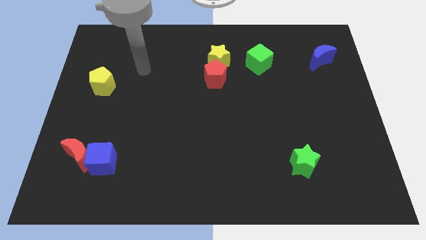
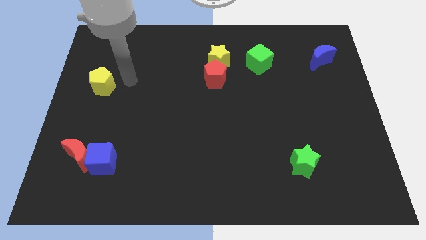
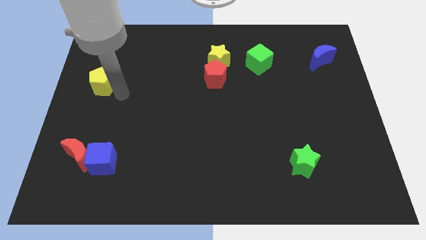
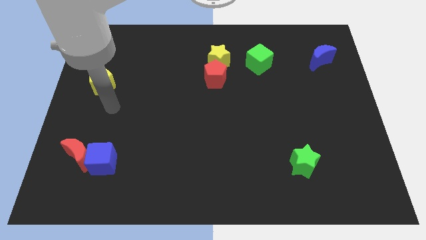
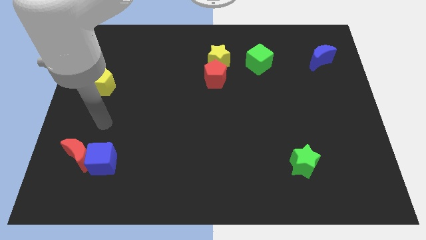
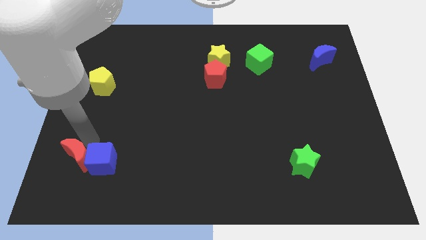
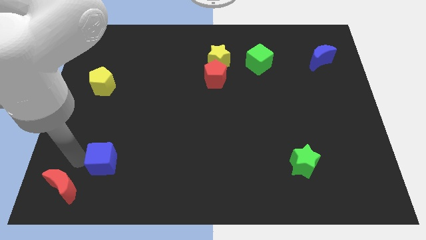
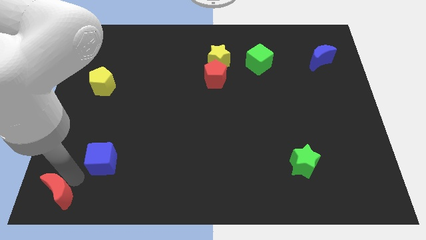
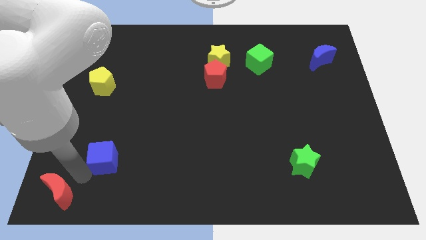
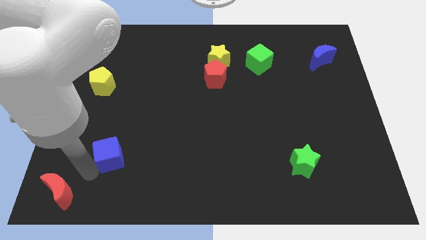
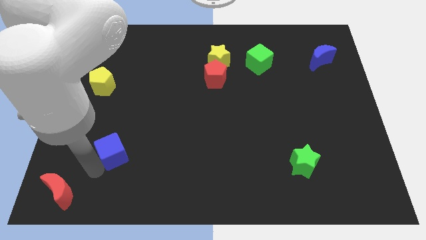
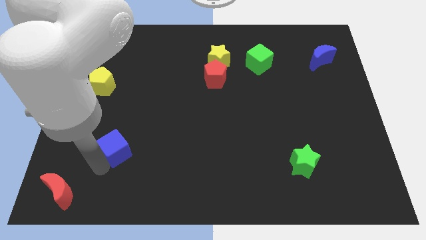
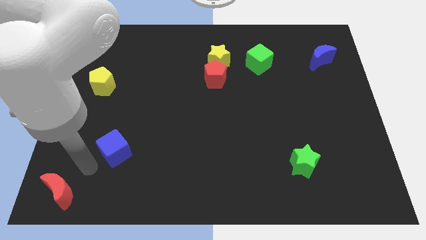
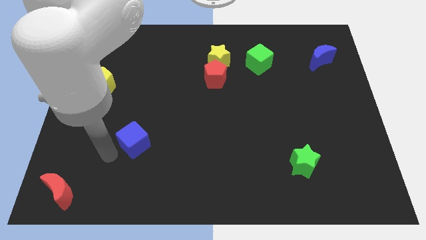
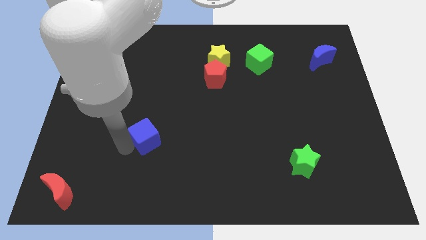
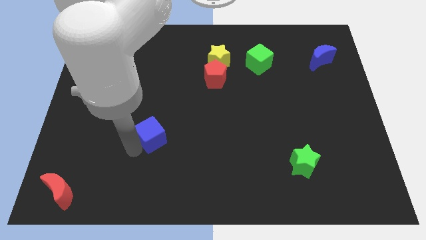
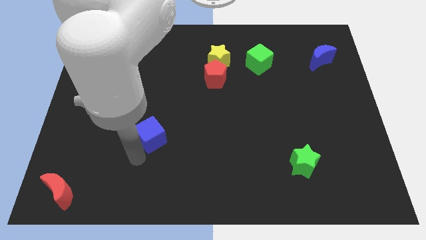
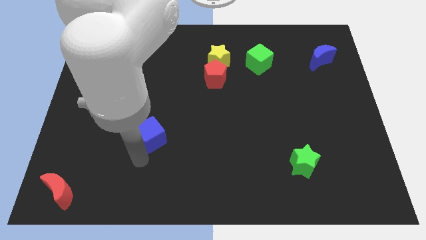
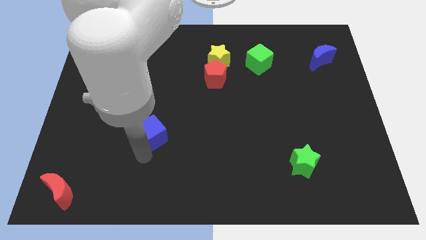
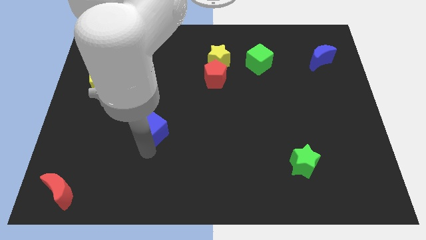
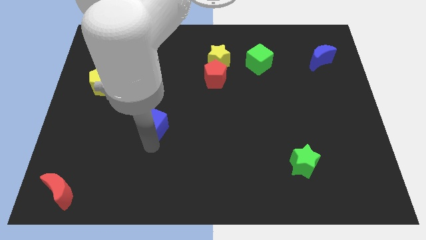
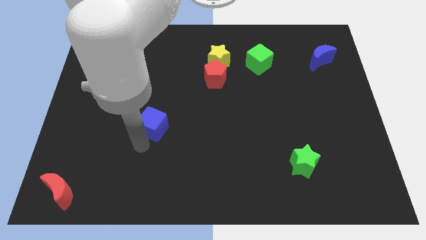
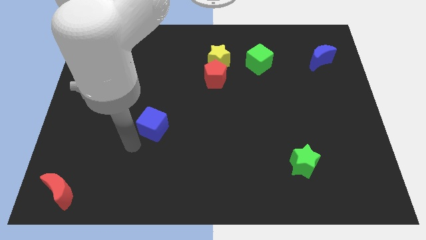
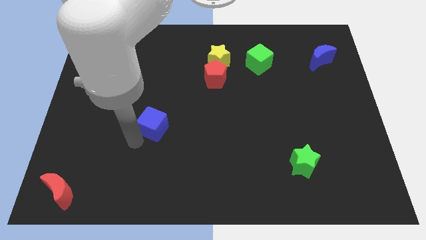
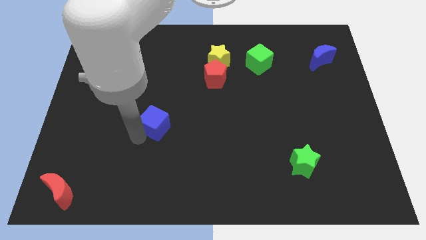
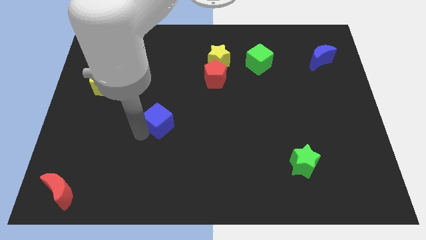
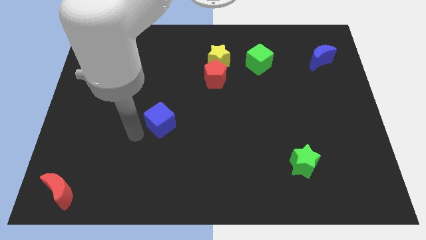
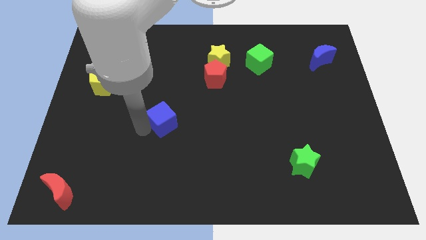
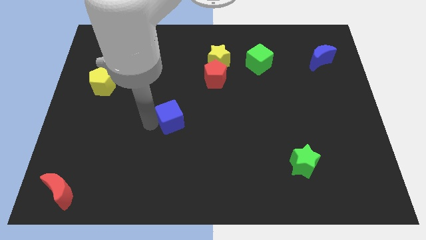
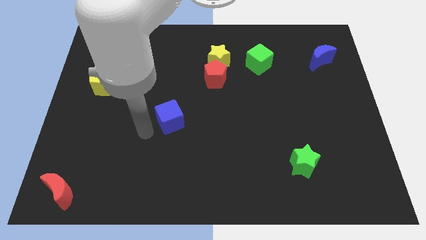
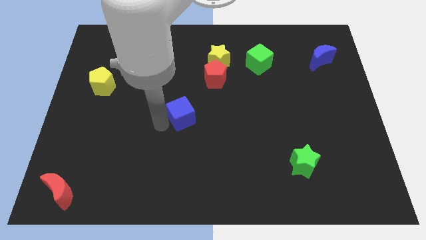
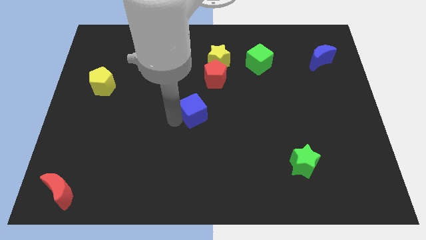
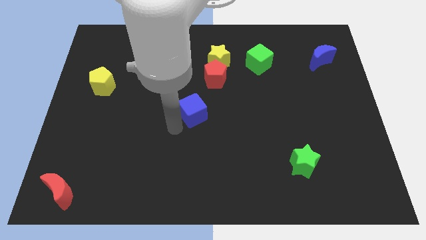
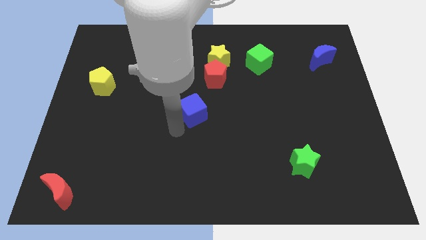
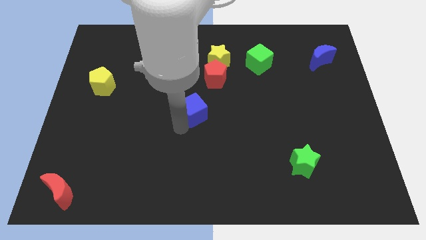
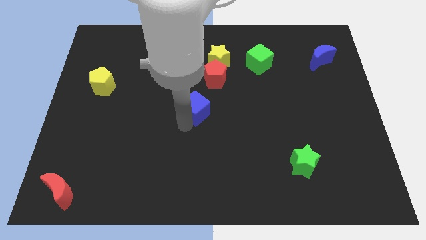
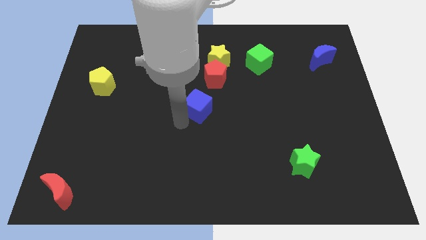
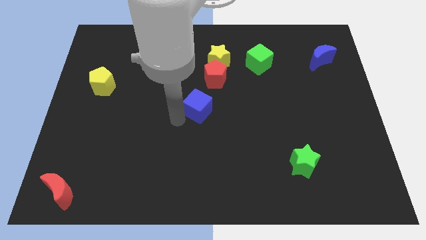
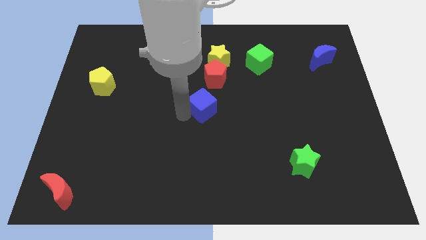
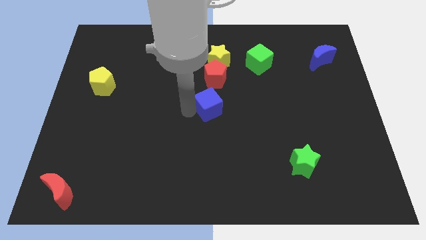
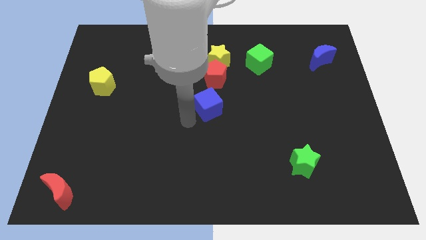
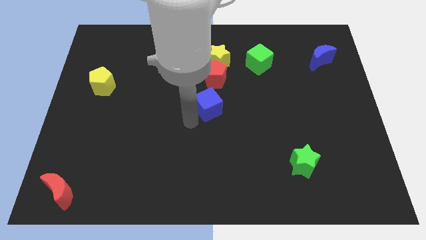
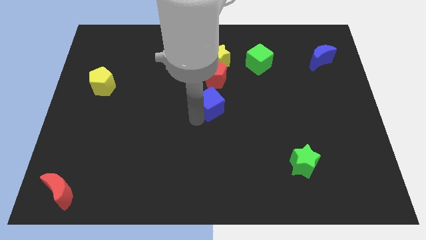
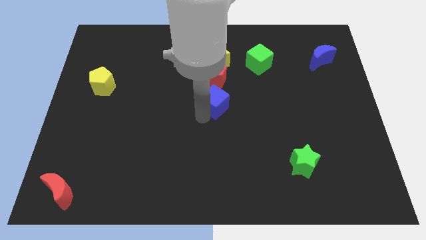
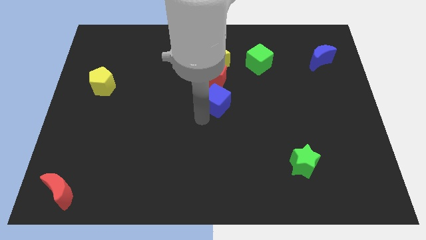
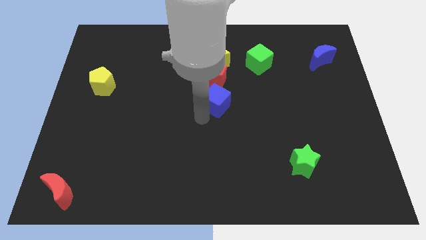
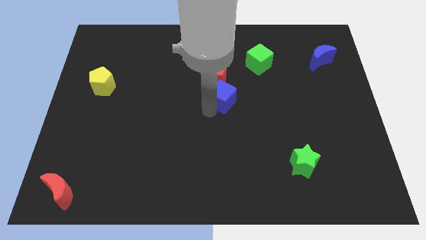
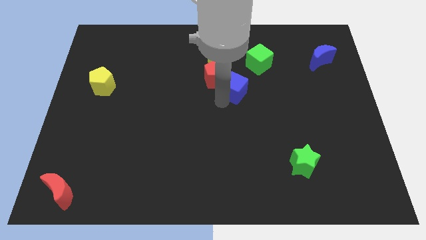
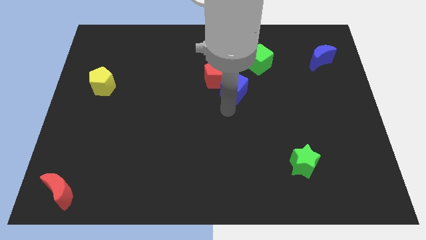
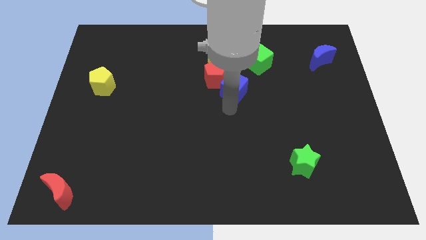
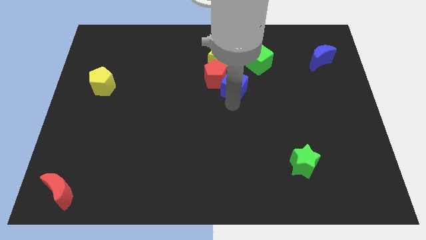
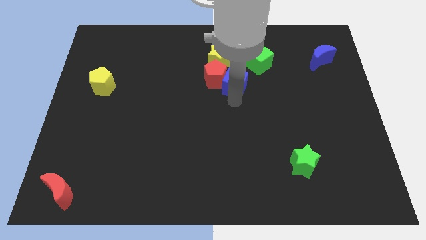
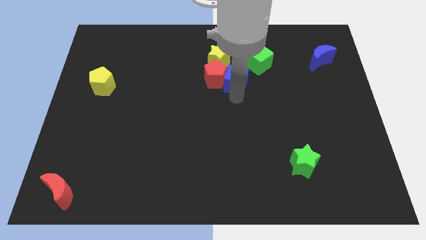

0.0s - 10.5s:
slide the blue cube diagonally up and to the right of the red pentagon

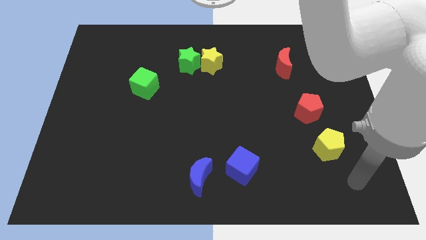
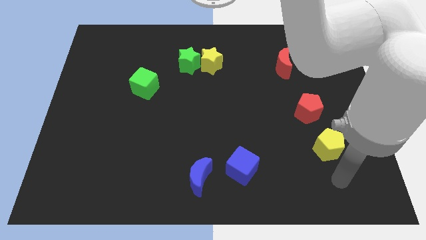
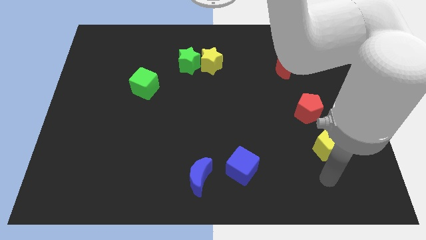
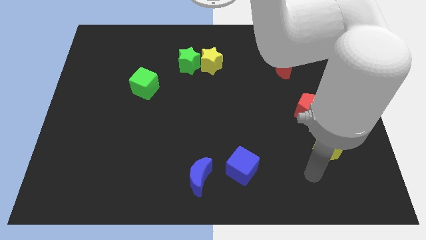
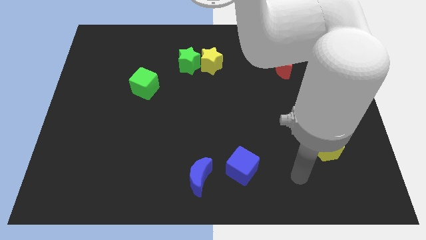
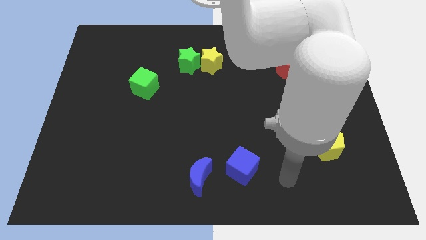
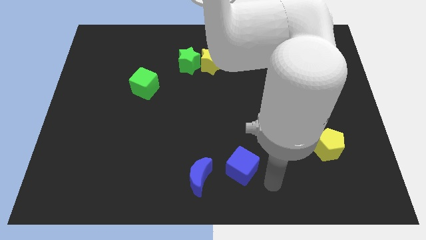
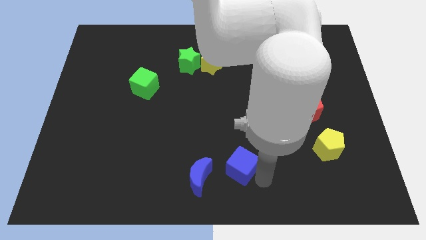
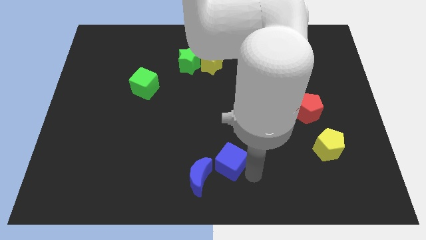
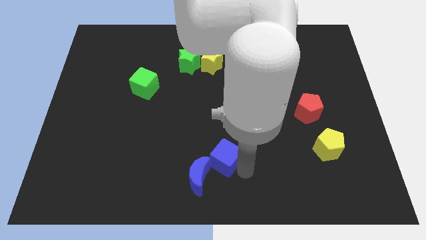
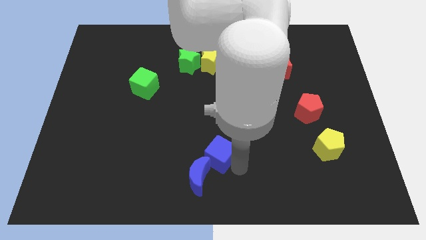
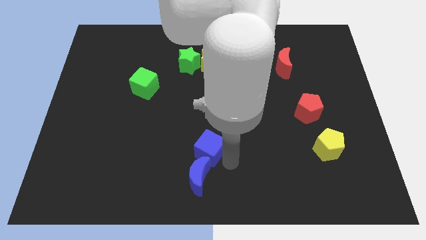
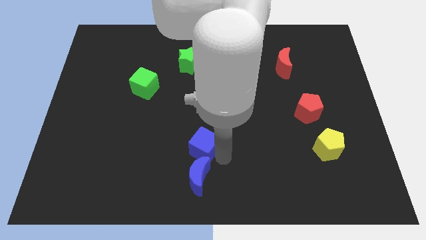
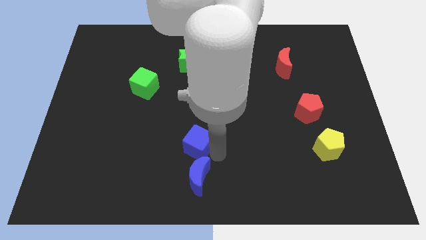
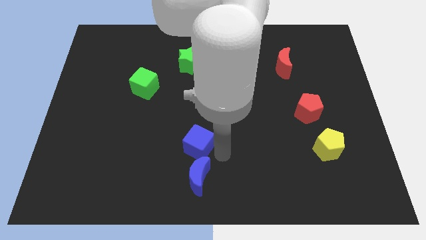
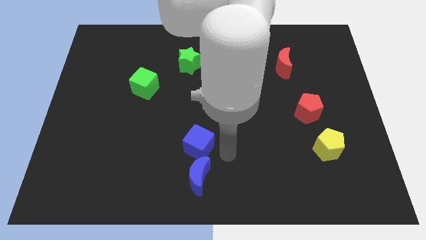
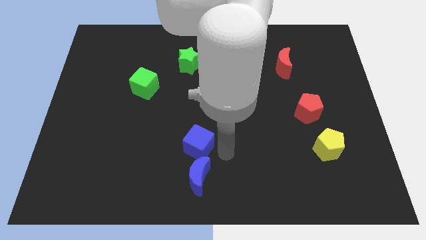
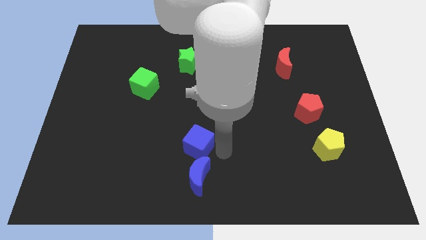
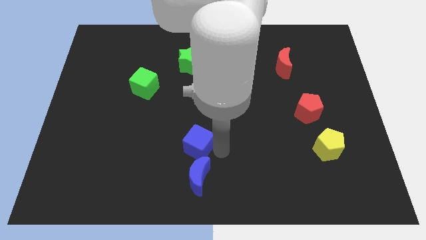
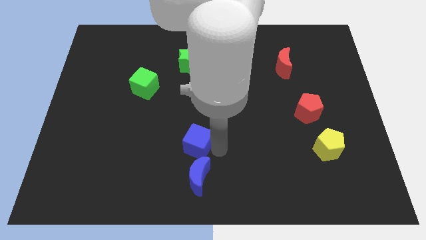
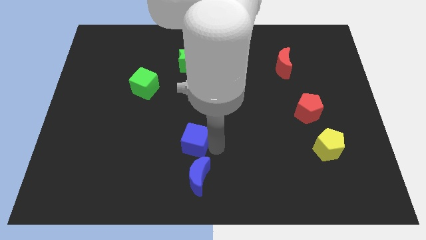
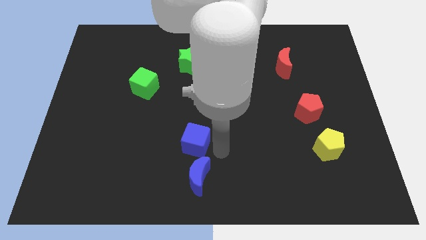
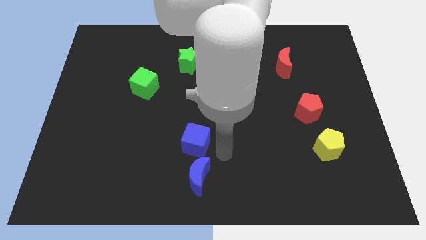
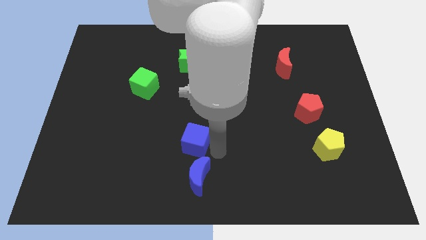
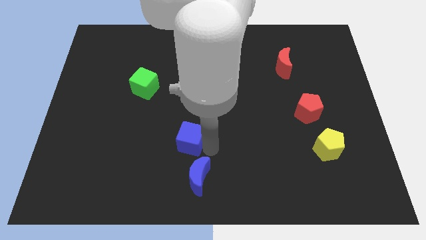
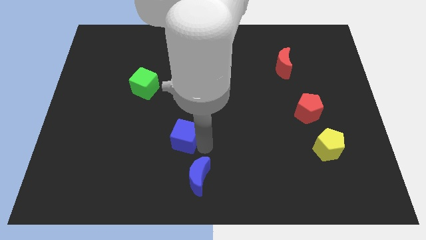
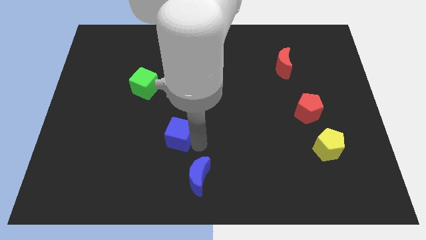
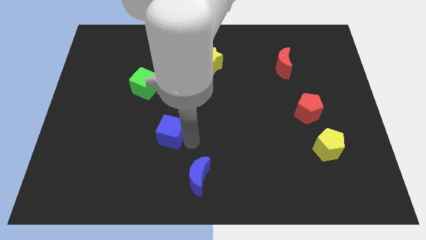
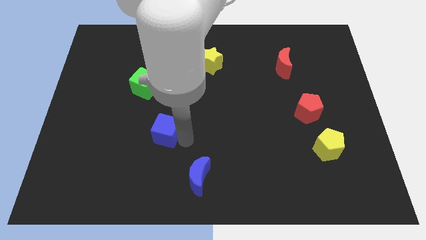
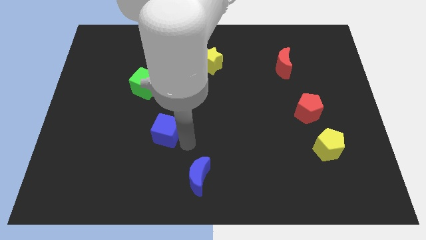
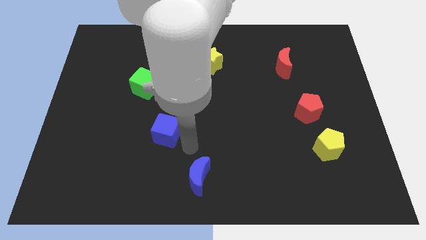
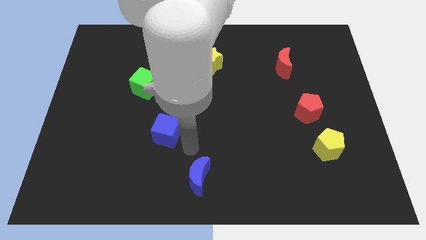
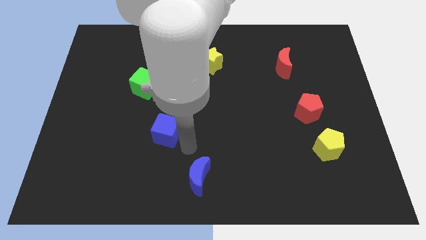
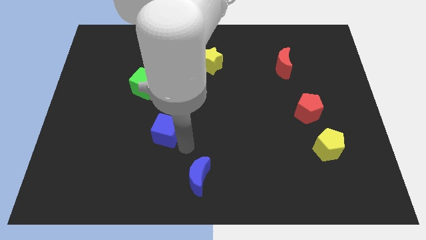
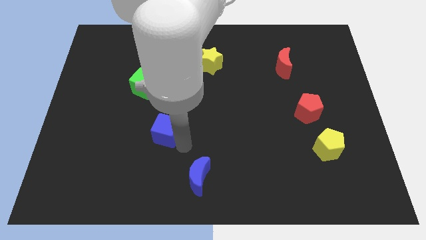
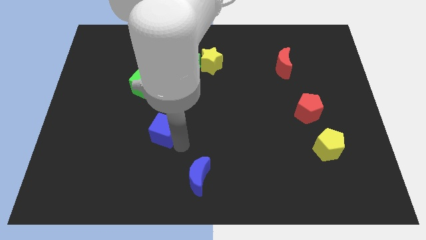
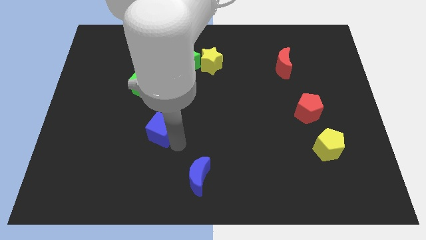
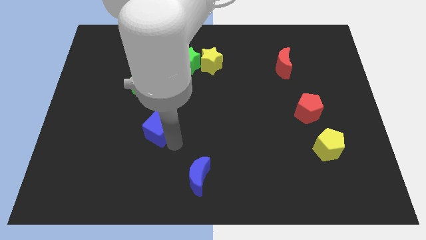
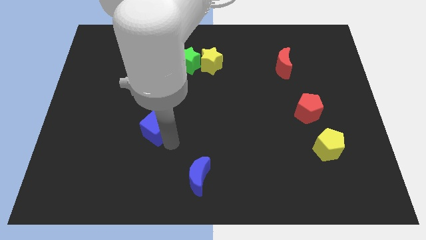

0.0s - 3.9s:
slide the blue cube to the bottom side of the green cube
